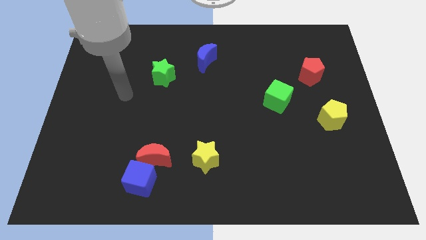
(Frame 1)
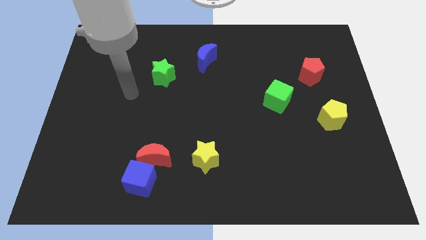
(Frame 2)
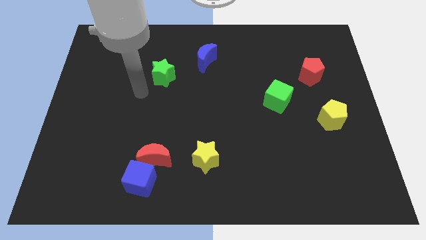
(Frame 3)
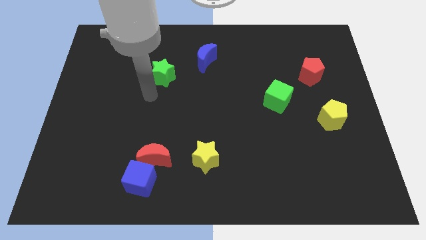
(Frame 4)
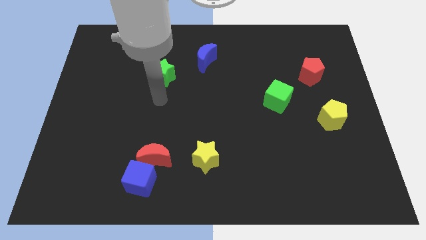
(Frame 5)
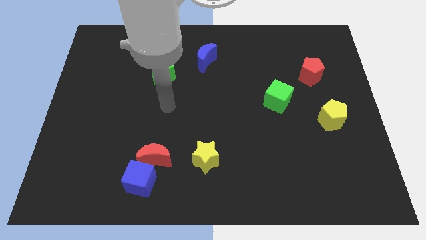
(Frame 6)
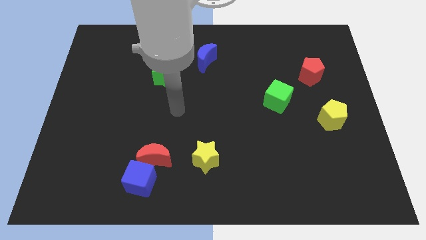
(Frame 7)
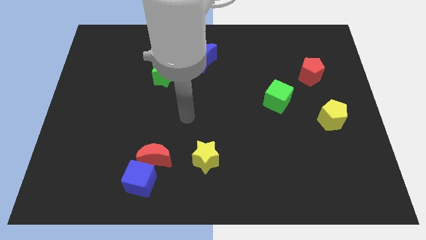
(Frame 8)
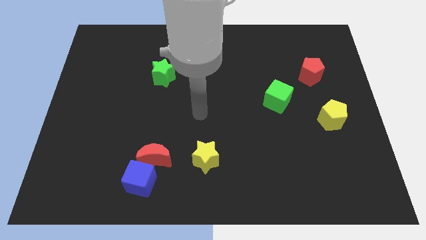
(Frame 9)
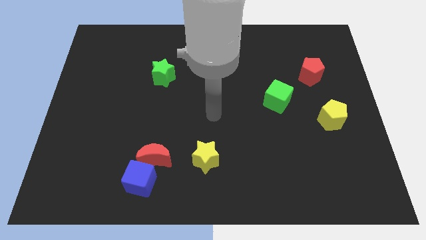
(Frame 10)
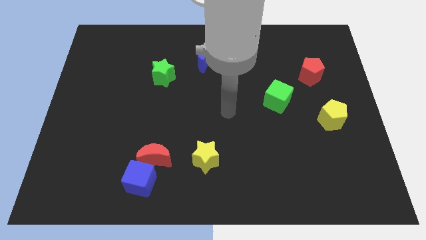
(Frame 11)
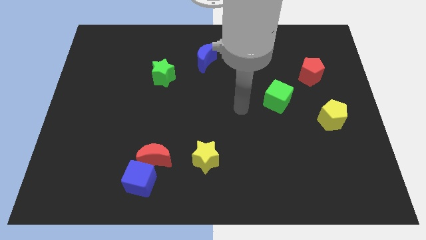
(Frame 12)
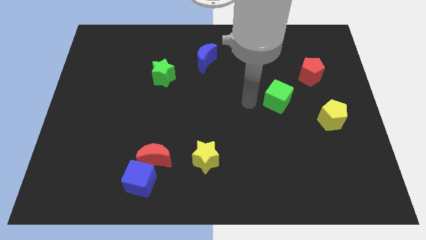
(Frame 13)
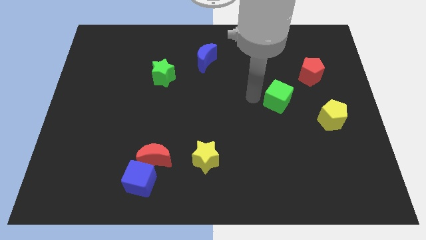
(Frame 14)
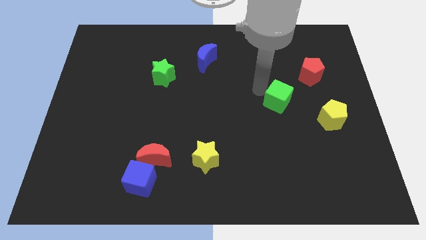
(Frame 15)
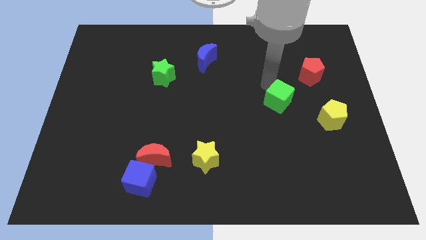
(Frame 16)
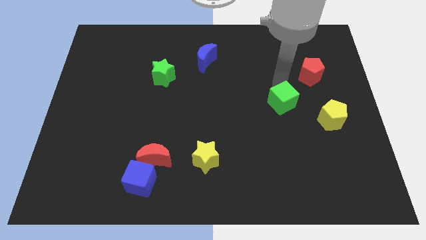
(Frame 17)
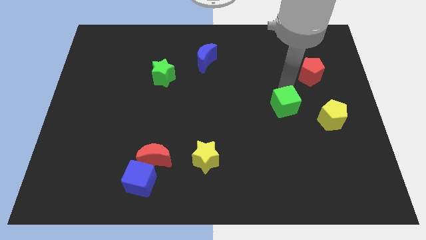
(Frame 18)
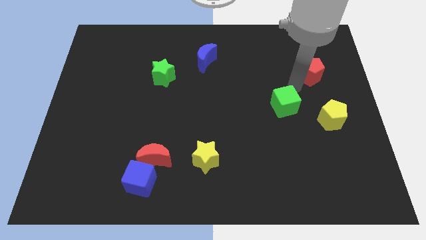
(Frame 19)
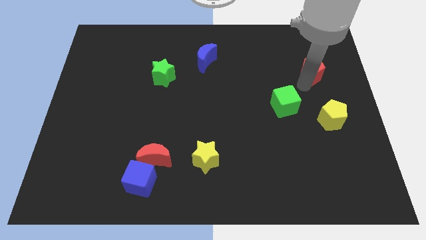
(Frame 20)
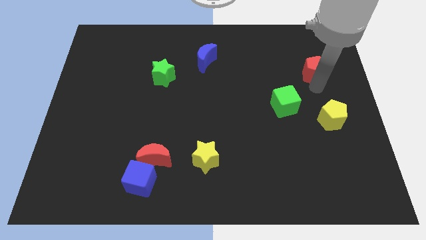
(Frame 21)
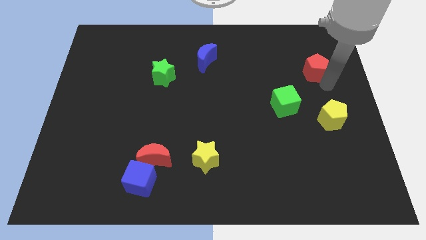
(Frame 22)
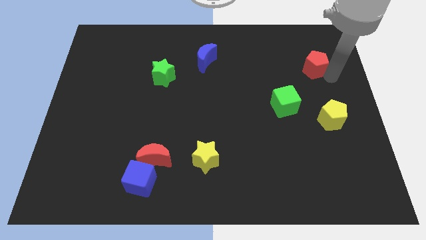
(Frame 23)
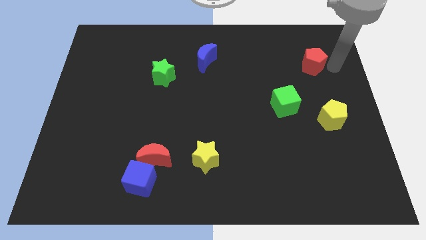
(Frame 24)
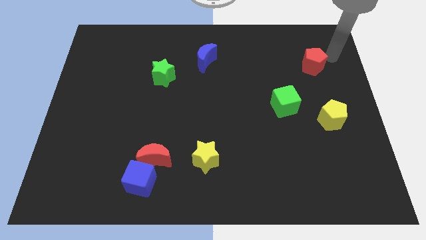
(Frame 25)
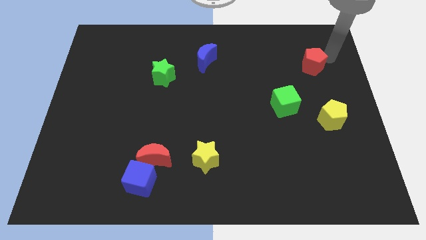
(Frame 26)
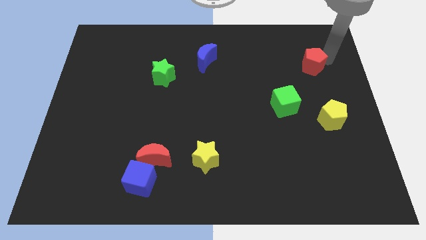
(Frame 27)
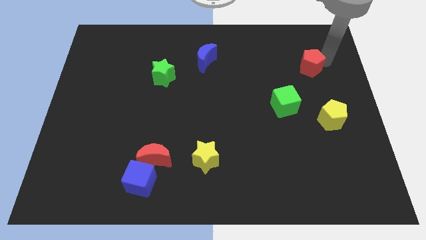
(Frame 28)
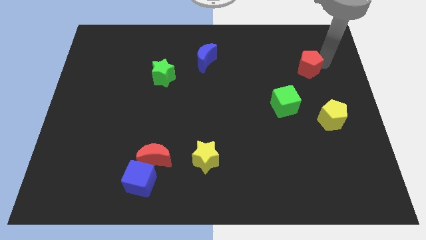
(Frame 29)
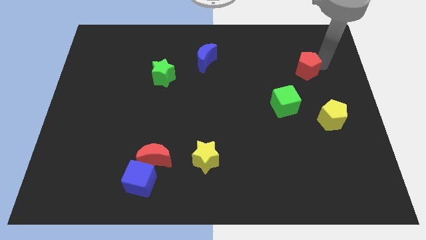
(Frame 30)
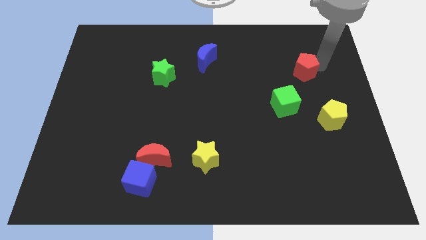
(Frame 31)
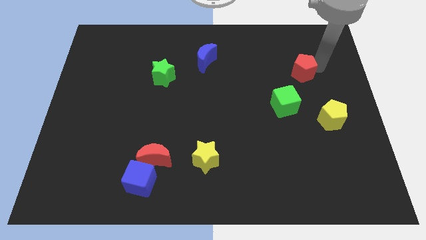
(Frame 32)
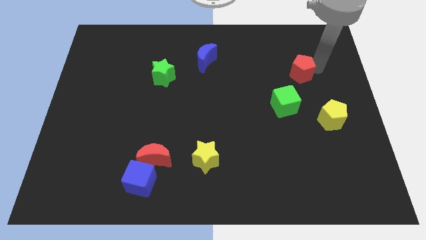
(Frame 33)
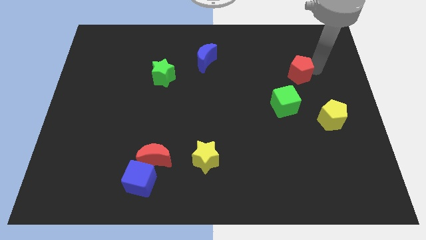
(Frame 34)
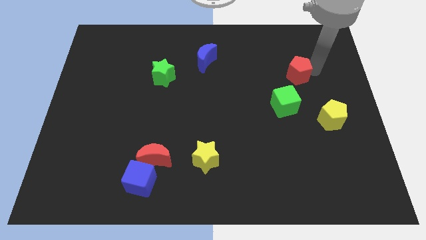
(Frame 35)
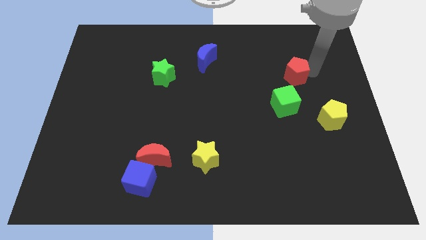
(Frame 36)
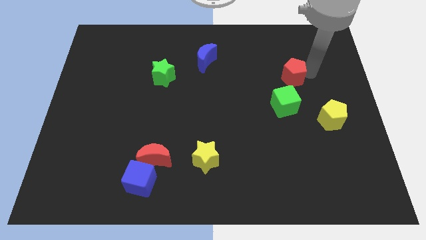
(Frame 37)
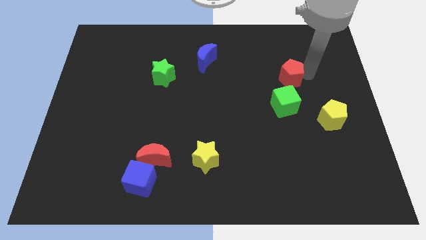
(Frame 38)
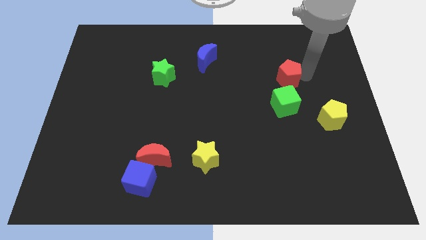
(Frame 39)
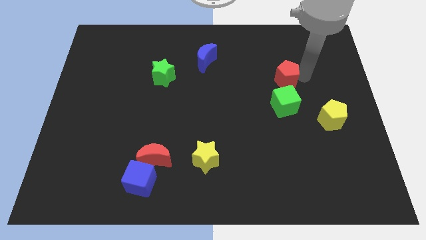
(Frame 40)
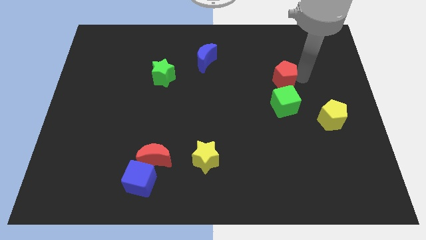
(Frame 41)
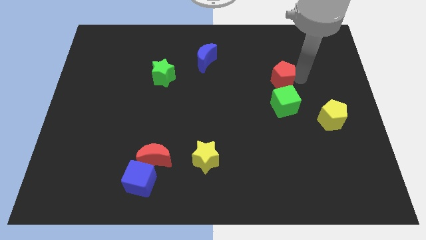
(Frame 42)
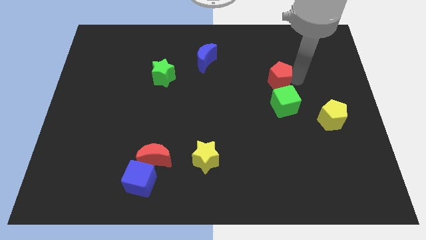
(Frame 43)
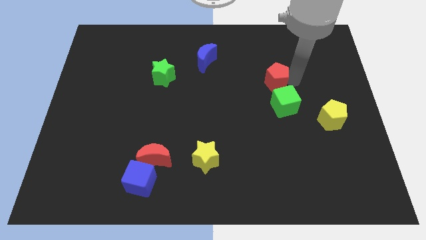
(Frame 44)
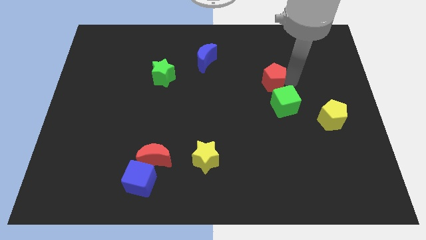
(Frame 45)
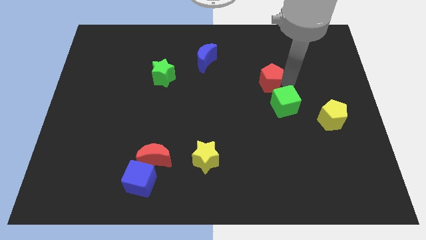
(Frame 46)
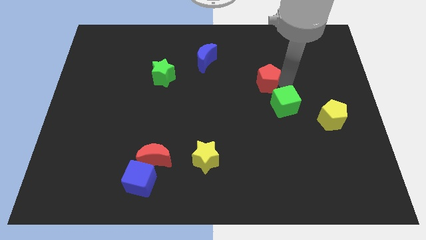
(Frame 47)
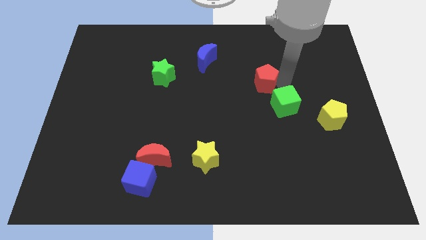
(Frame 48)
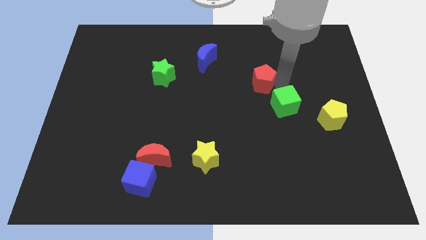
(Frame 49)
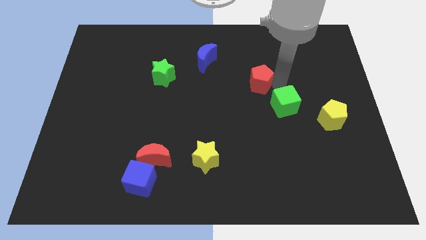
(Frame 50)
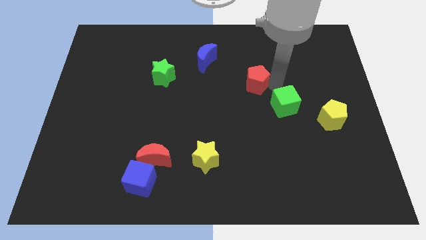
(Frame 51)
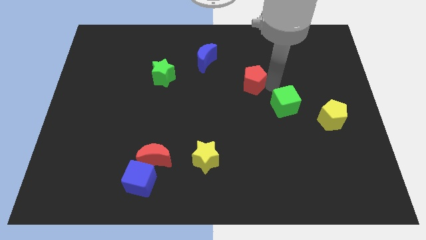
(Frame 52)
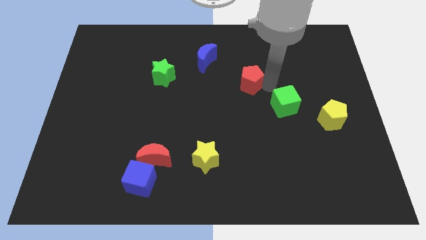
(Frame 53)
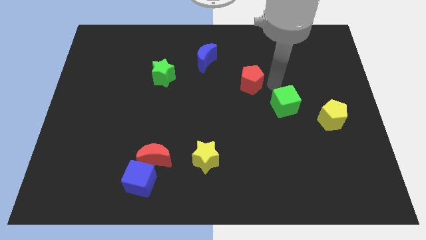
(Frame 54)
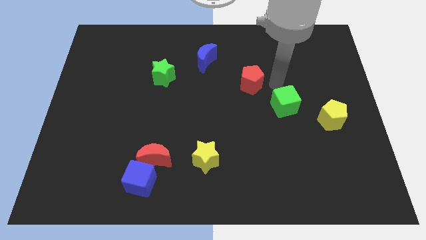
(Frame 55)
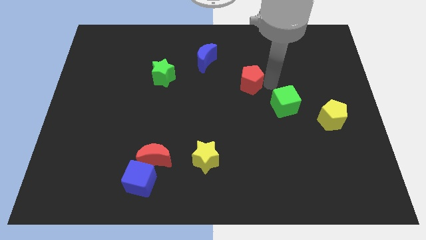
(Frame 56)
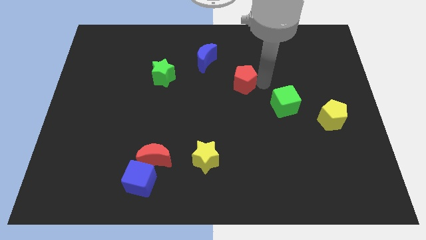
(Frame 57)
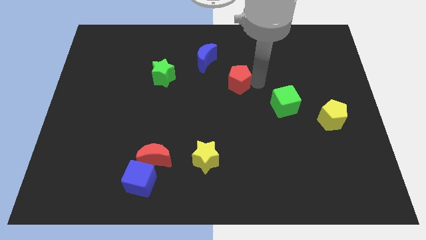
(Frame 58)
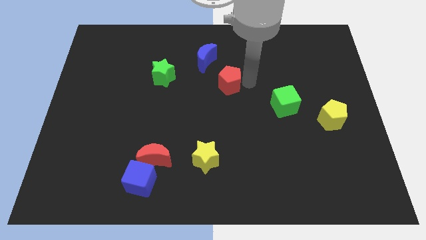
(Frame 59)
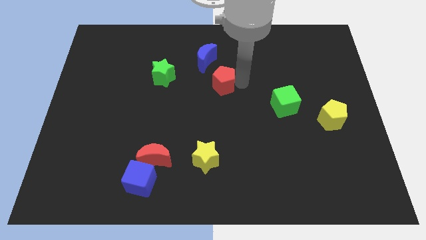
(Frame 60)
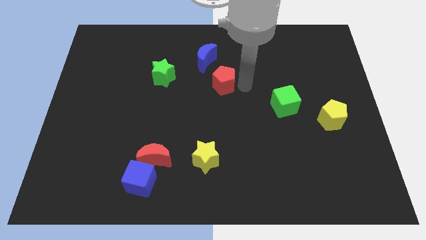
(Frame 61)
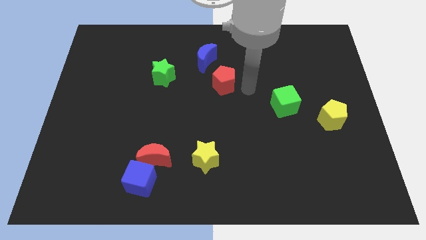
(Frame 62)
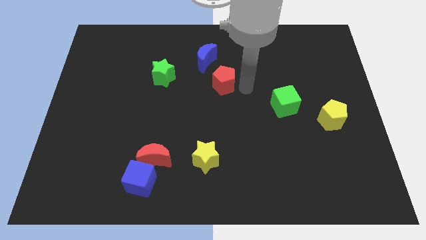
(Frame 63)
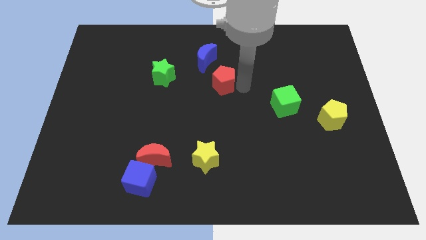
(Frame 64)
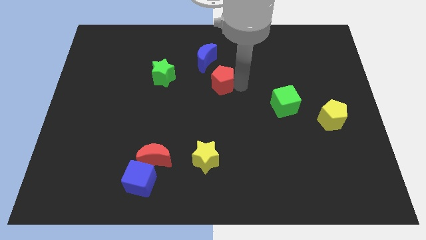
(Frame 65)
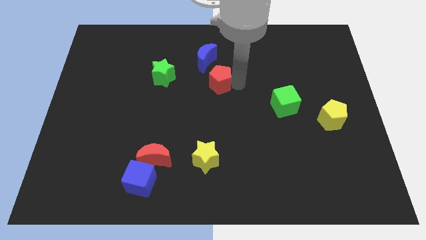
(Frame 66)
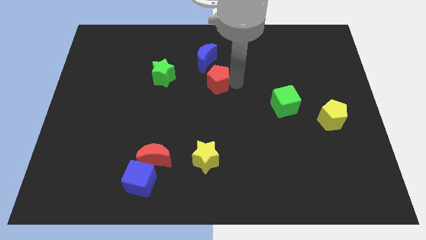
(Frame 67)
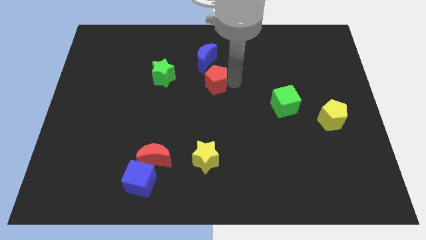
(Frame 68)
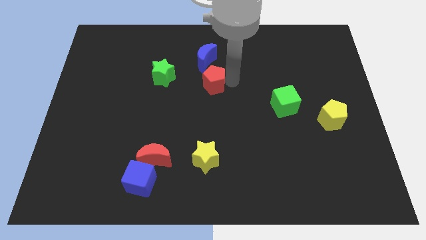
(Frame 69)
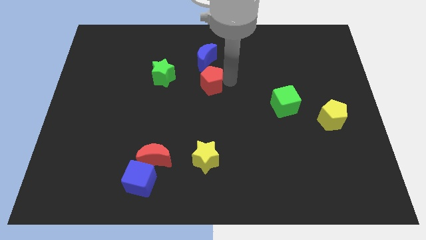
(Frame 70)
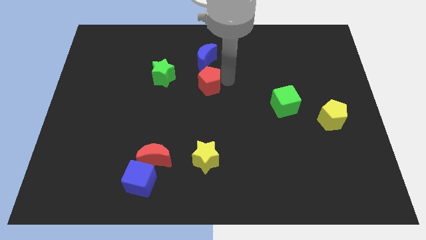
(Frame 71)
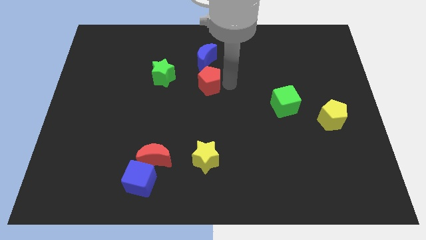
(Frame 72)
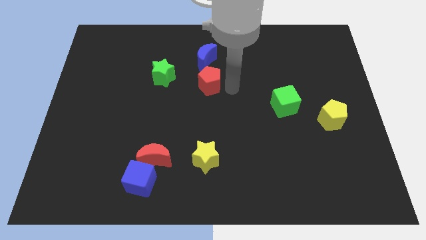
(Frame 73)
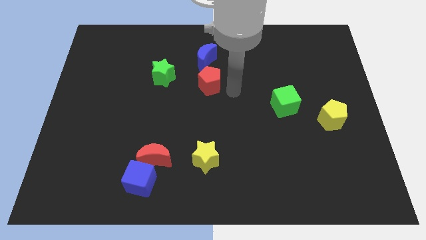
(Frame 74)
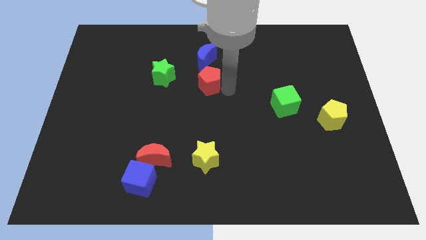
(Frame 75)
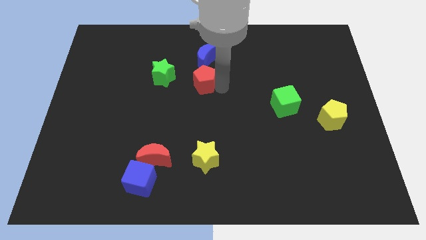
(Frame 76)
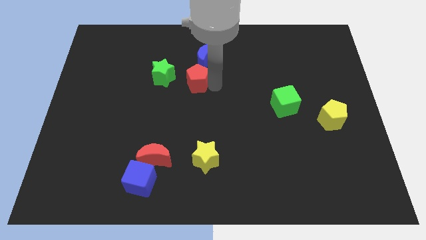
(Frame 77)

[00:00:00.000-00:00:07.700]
put the red pentagon diagonally down and to the left of the blue moon
